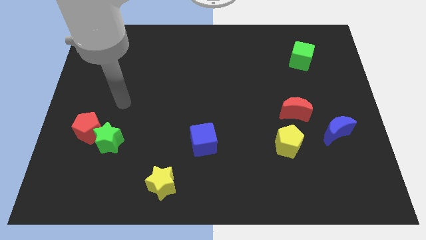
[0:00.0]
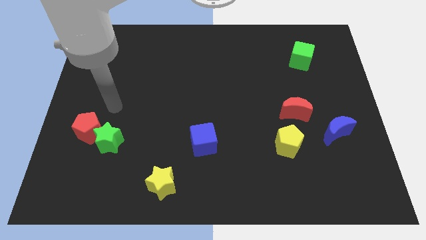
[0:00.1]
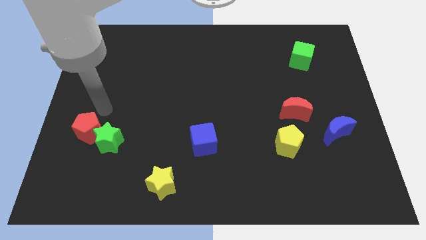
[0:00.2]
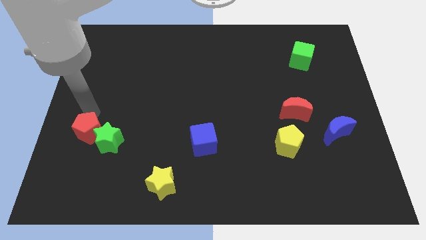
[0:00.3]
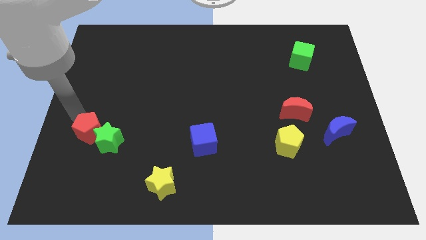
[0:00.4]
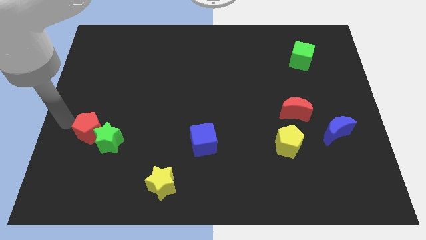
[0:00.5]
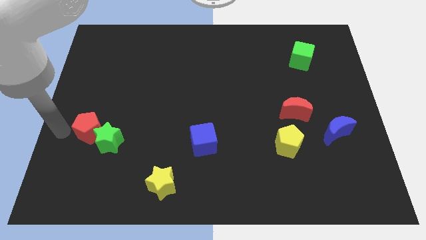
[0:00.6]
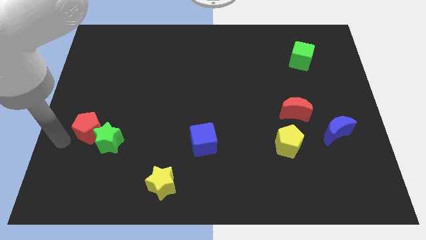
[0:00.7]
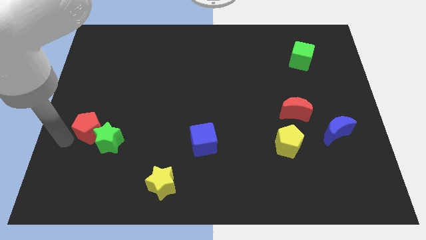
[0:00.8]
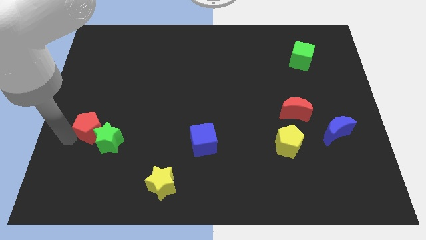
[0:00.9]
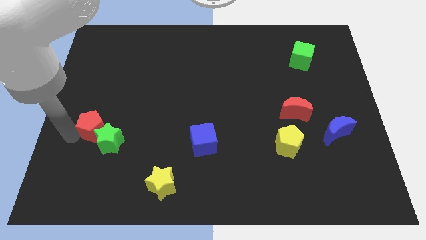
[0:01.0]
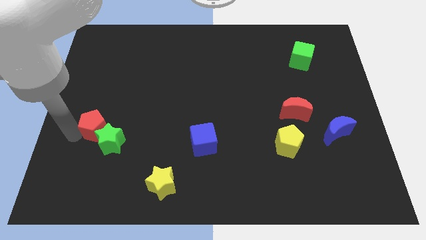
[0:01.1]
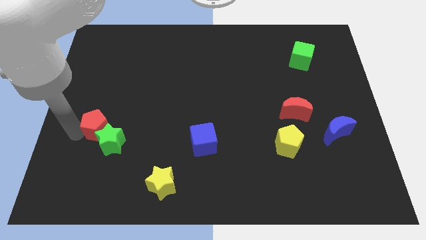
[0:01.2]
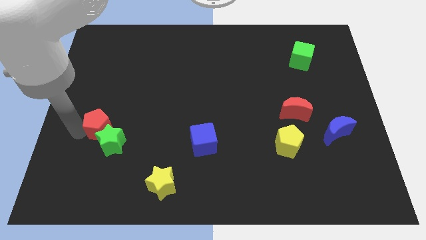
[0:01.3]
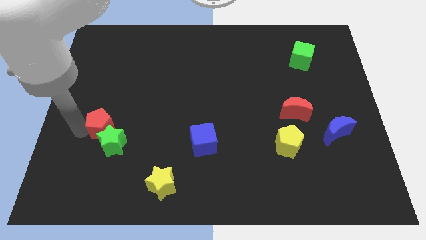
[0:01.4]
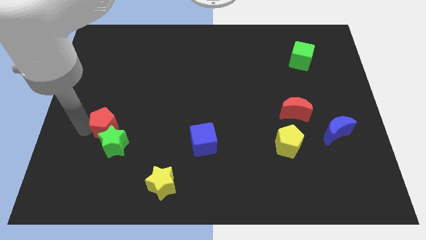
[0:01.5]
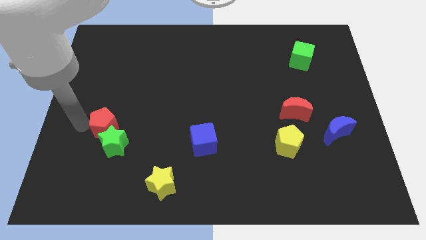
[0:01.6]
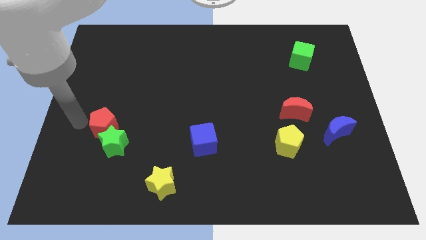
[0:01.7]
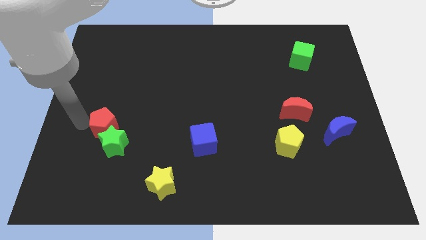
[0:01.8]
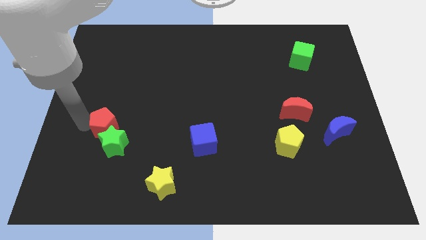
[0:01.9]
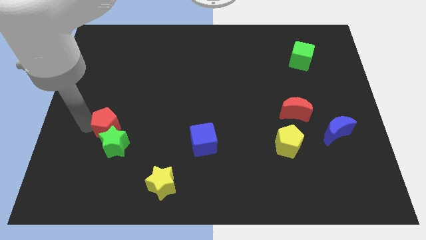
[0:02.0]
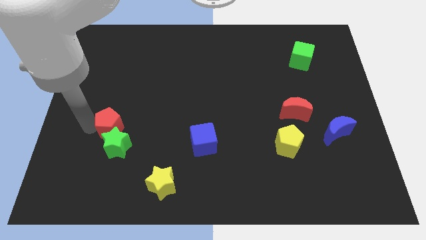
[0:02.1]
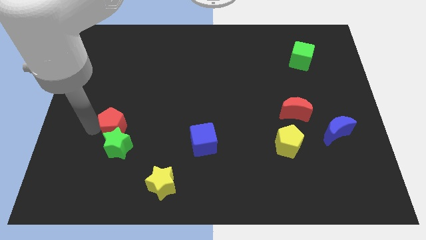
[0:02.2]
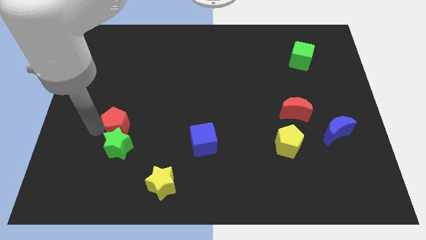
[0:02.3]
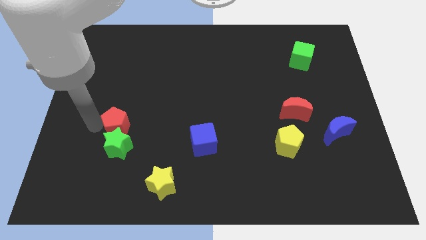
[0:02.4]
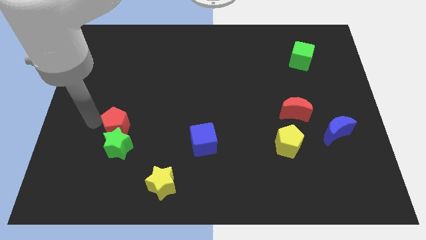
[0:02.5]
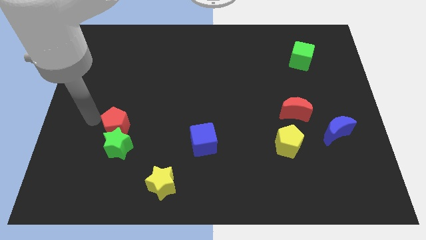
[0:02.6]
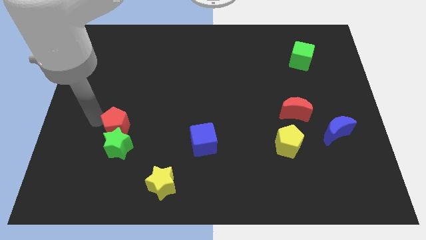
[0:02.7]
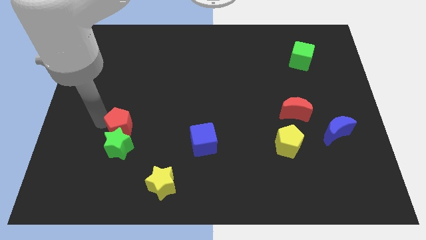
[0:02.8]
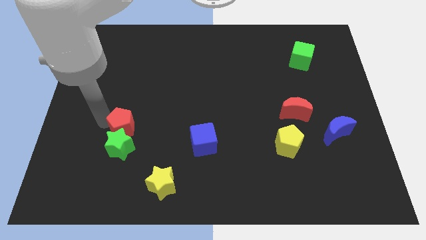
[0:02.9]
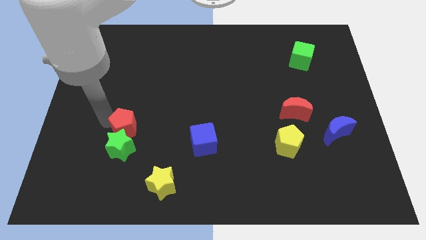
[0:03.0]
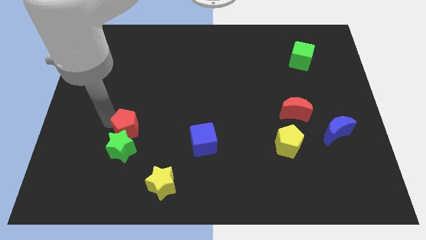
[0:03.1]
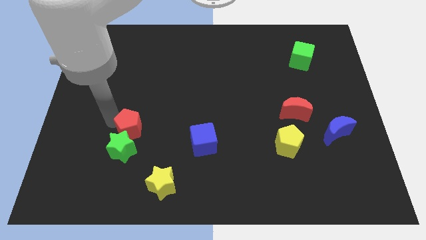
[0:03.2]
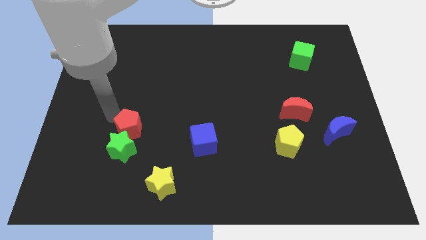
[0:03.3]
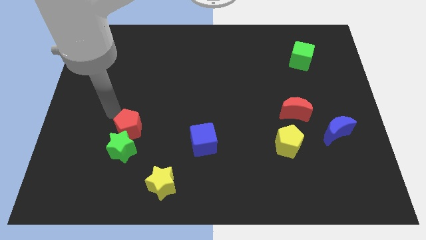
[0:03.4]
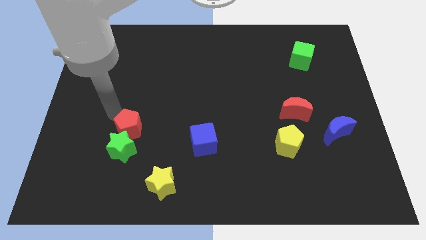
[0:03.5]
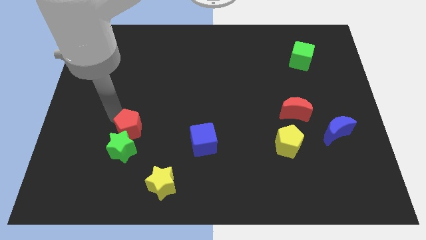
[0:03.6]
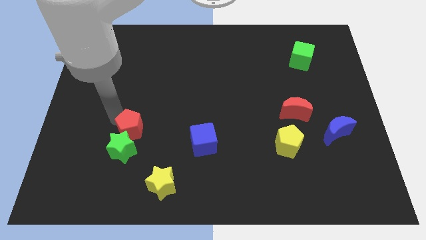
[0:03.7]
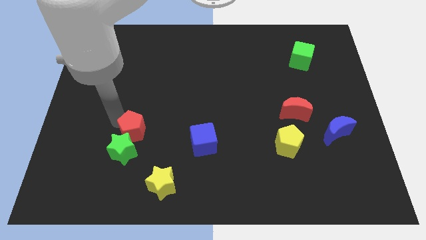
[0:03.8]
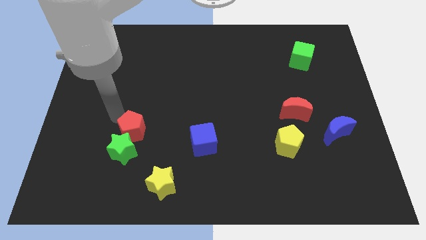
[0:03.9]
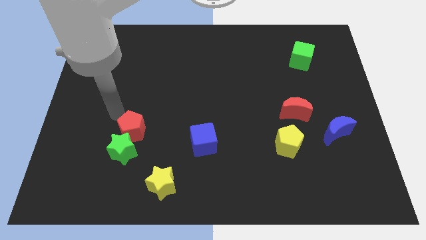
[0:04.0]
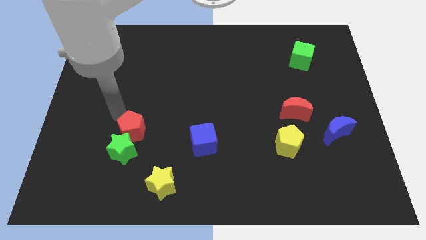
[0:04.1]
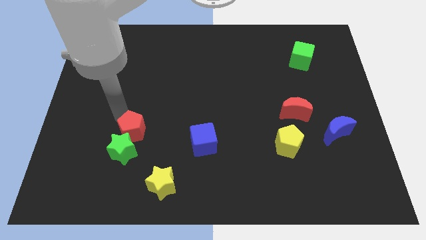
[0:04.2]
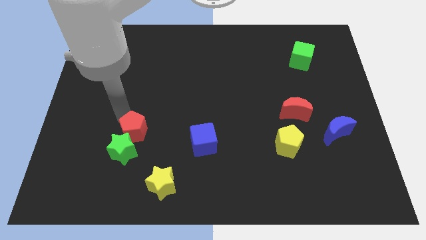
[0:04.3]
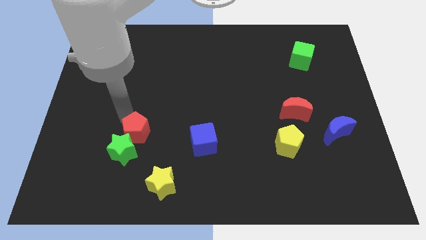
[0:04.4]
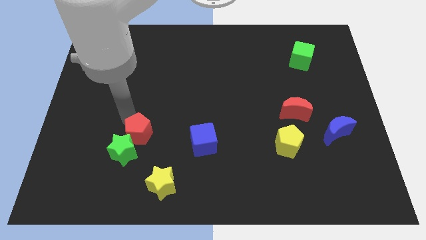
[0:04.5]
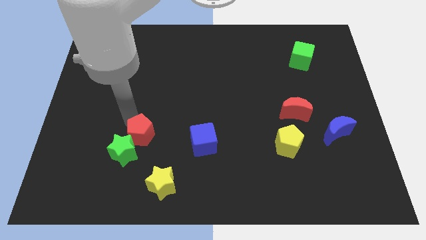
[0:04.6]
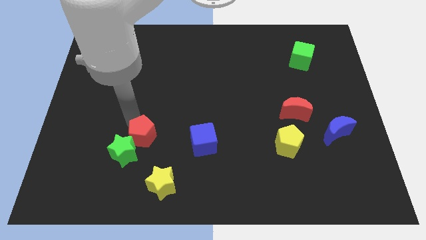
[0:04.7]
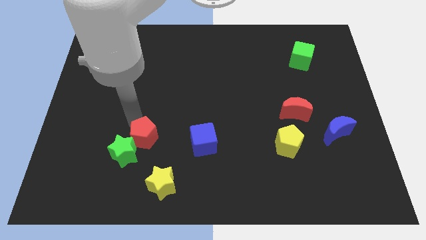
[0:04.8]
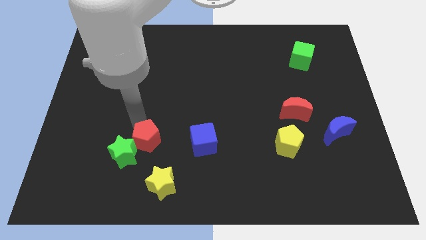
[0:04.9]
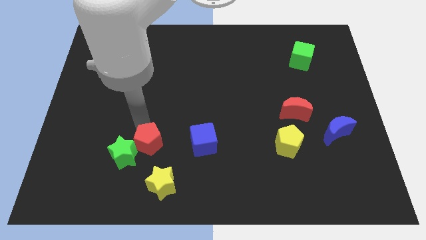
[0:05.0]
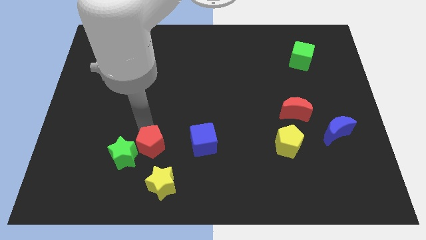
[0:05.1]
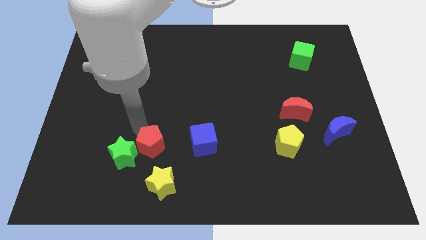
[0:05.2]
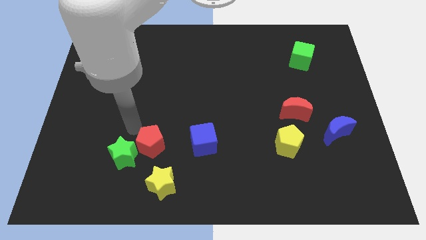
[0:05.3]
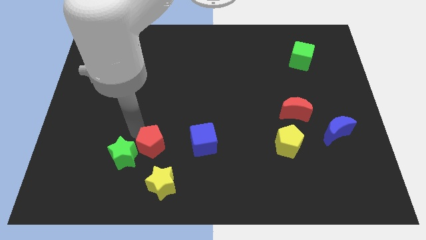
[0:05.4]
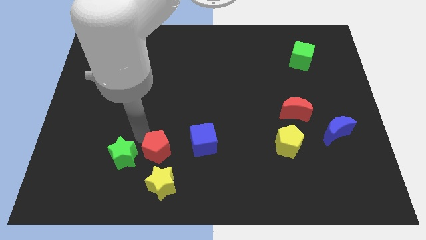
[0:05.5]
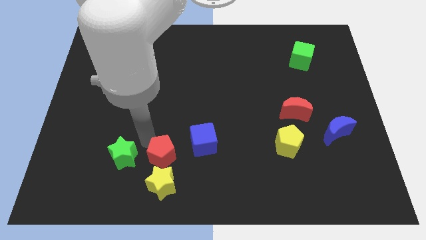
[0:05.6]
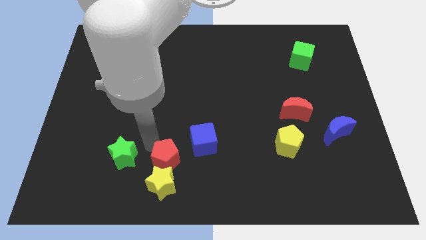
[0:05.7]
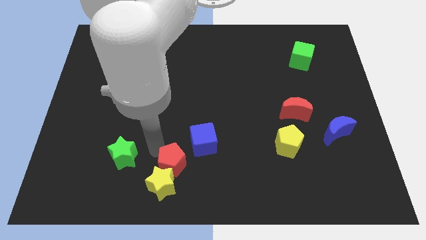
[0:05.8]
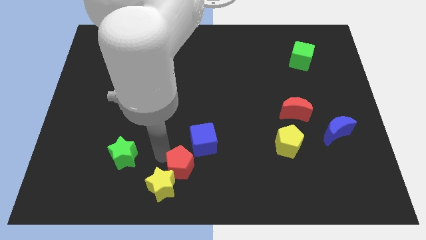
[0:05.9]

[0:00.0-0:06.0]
move the red pentagon to the right of the yellow star

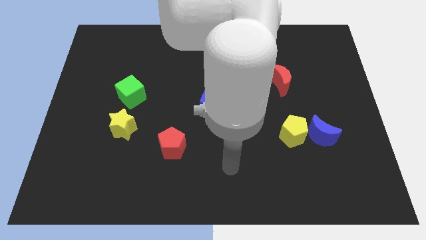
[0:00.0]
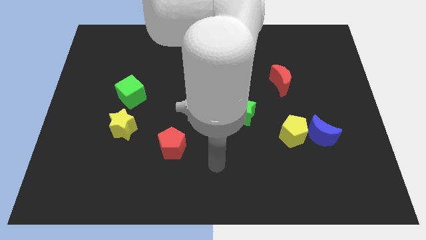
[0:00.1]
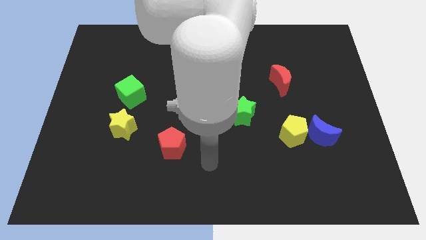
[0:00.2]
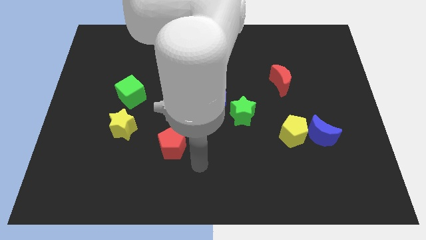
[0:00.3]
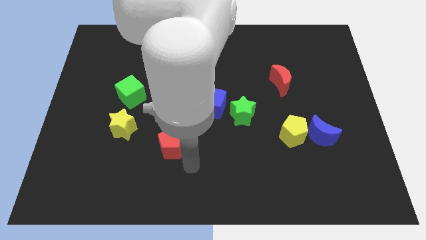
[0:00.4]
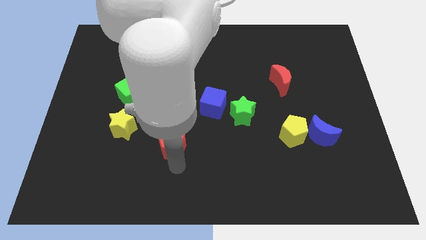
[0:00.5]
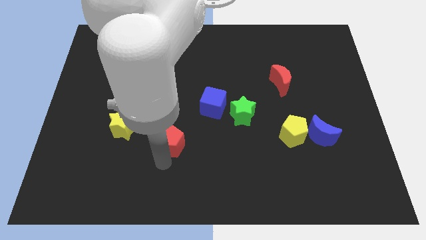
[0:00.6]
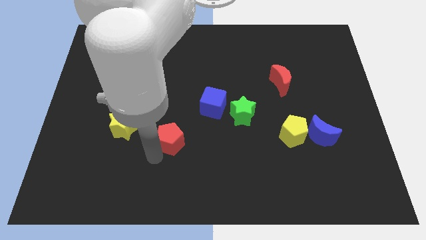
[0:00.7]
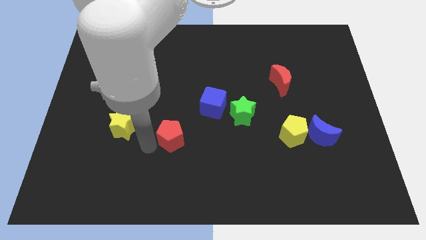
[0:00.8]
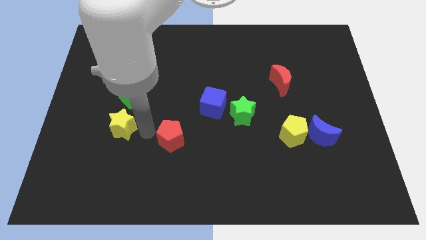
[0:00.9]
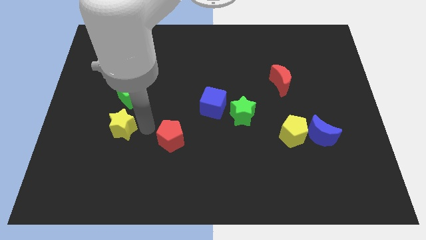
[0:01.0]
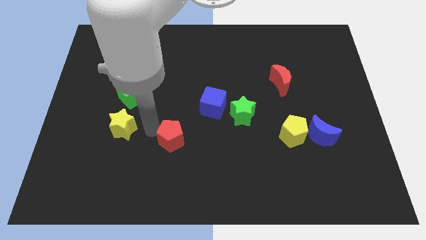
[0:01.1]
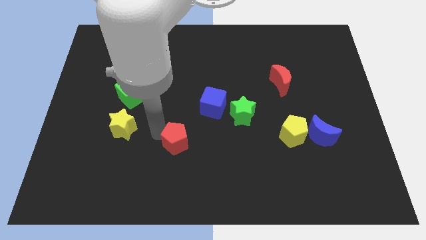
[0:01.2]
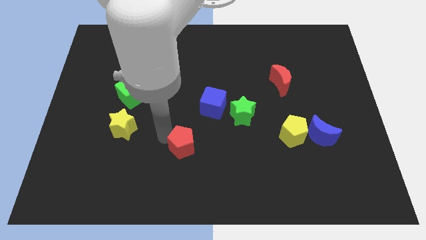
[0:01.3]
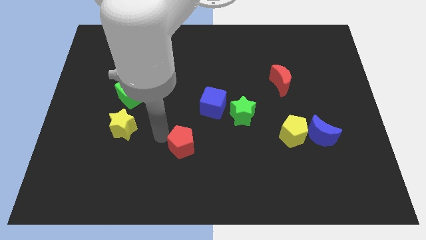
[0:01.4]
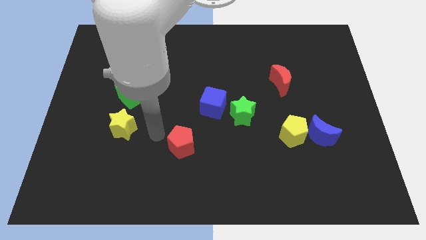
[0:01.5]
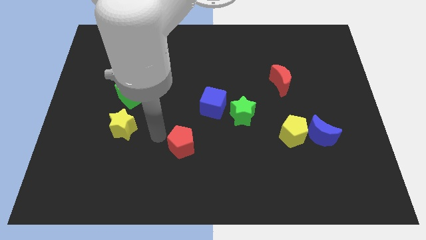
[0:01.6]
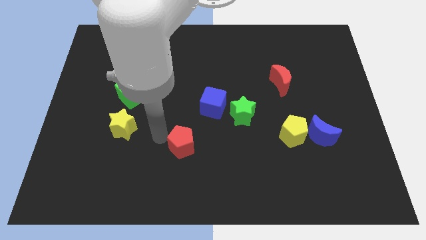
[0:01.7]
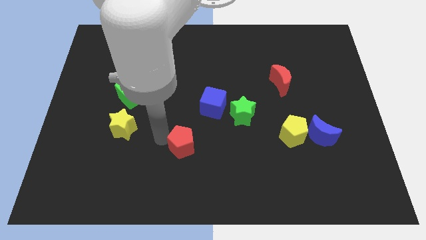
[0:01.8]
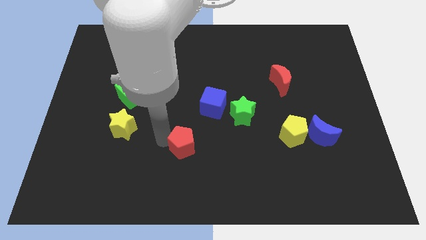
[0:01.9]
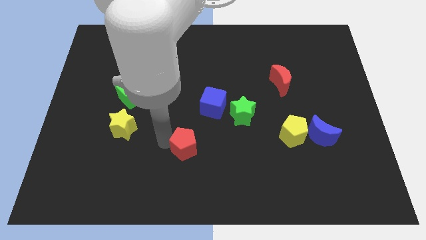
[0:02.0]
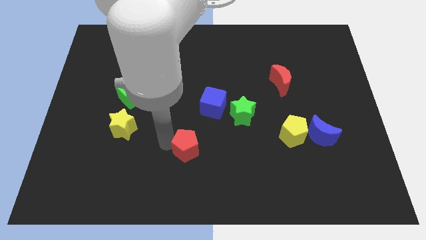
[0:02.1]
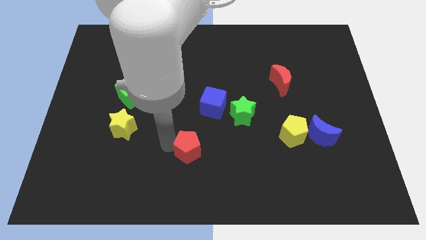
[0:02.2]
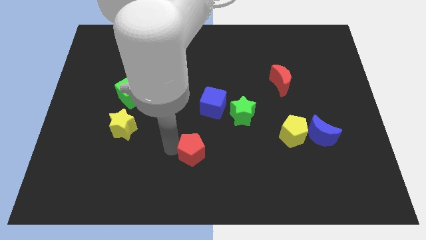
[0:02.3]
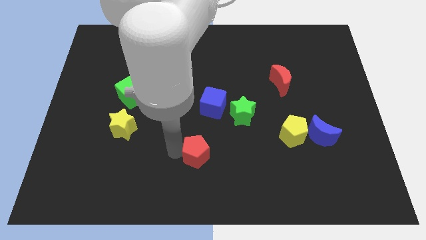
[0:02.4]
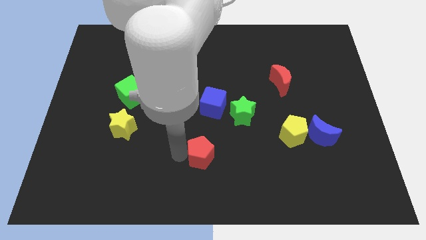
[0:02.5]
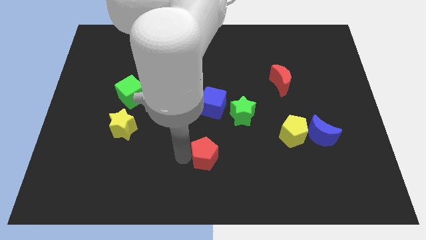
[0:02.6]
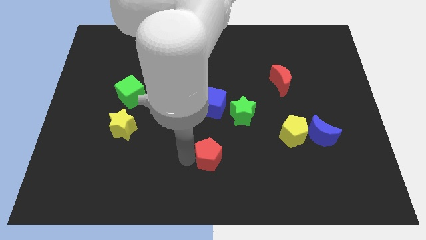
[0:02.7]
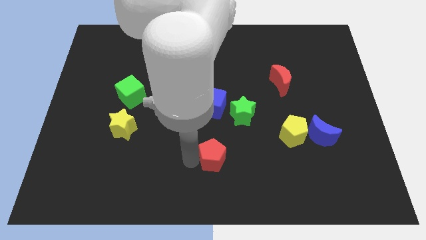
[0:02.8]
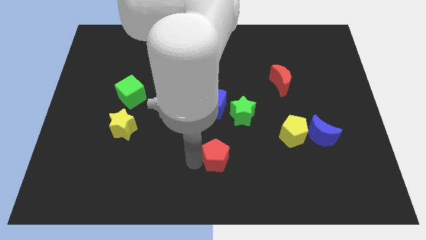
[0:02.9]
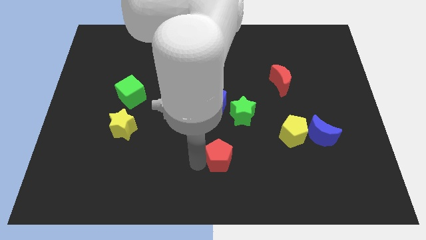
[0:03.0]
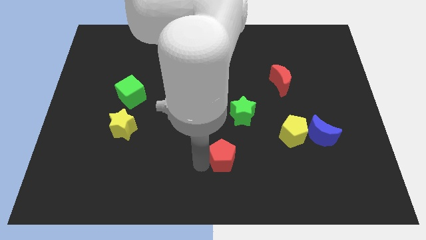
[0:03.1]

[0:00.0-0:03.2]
move the red pentagon to the bottom of the green star
